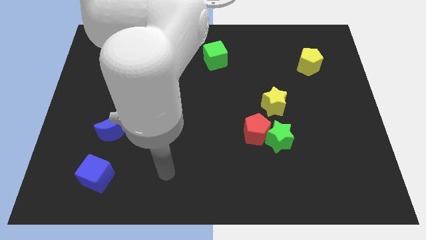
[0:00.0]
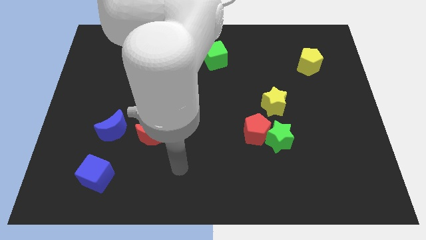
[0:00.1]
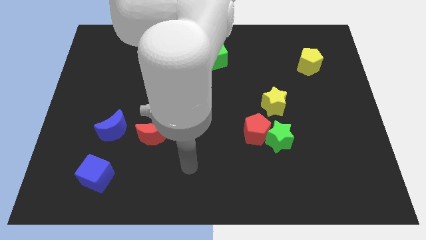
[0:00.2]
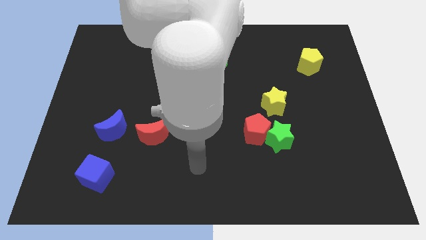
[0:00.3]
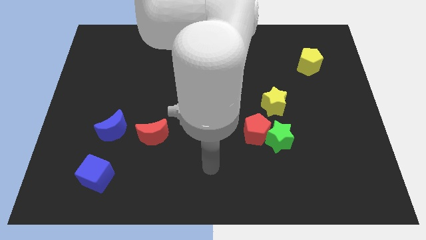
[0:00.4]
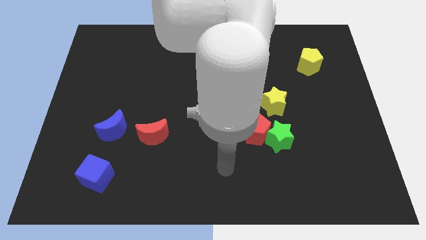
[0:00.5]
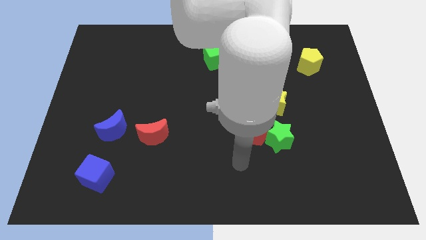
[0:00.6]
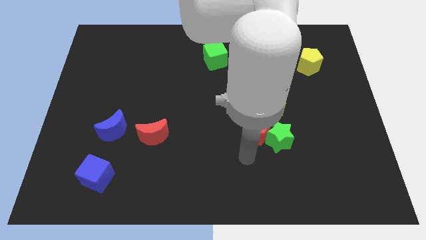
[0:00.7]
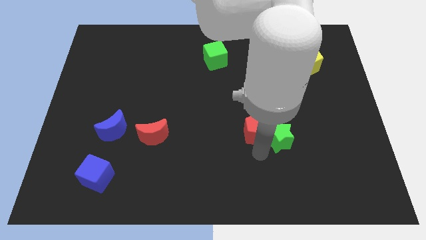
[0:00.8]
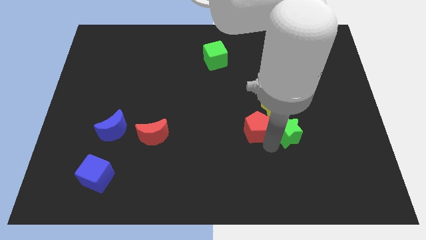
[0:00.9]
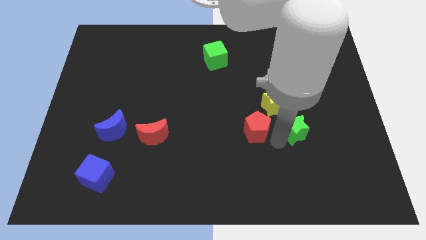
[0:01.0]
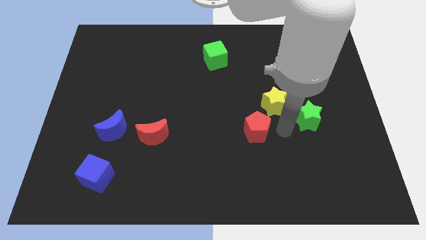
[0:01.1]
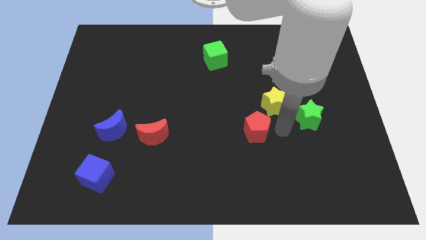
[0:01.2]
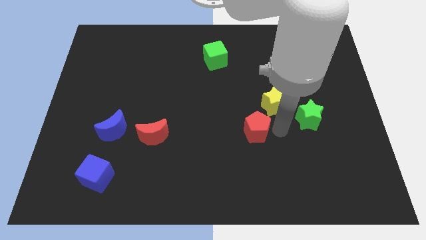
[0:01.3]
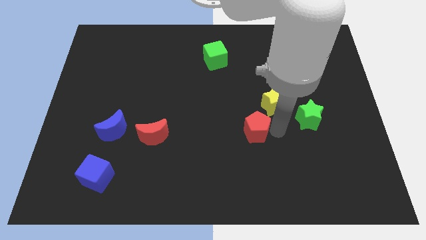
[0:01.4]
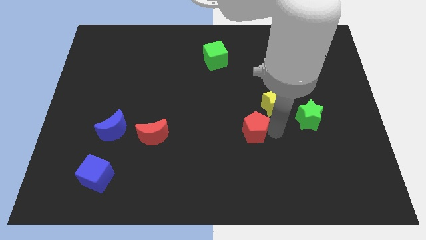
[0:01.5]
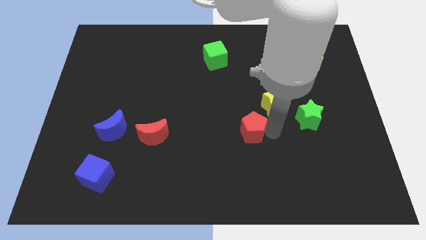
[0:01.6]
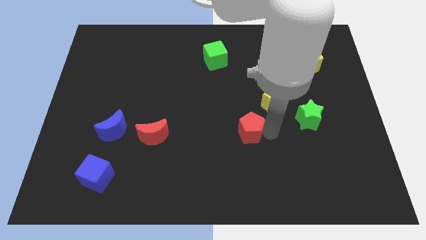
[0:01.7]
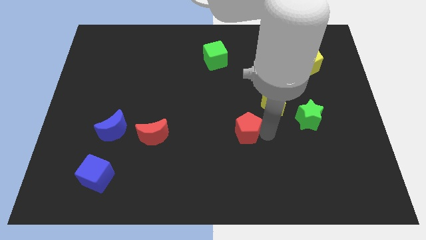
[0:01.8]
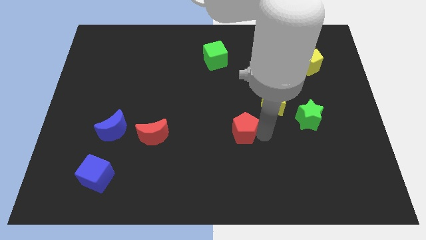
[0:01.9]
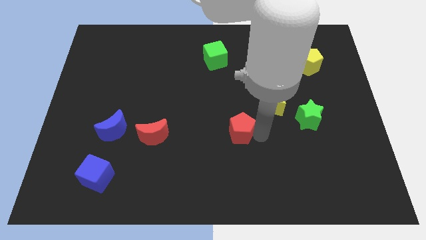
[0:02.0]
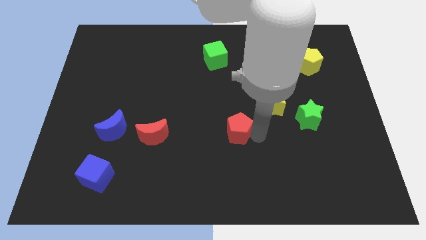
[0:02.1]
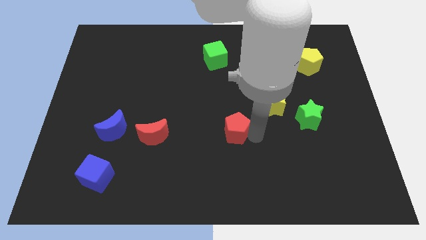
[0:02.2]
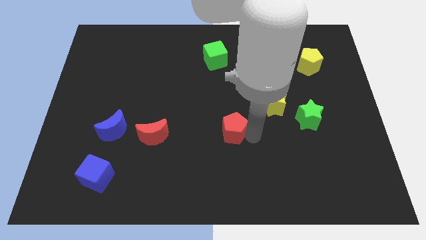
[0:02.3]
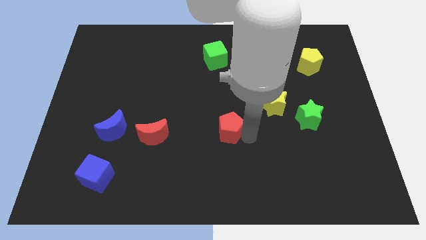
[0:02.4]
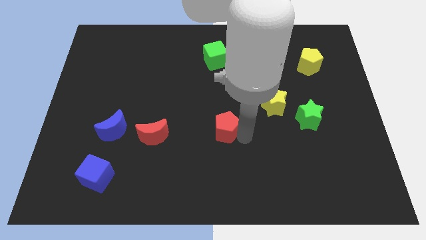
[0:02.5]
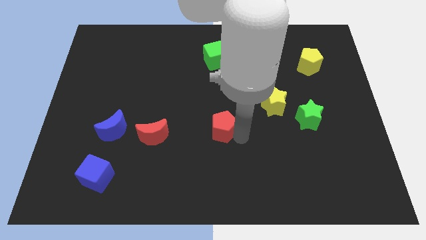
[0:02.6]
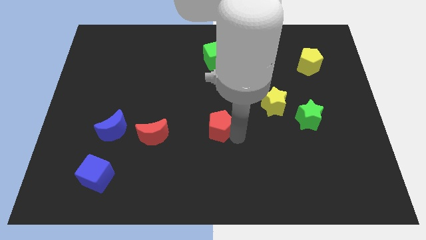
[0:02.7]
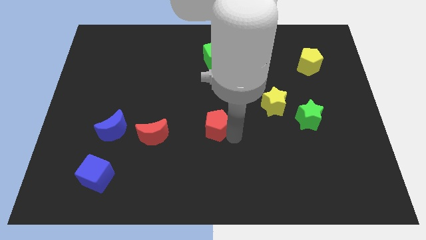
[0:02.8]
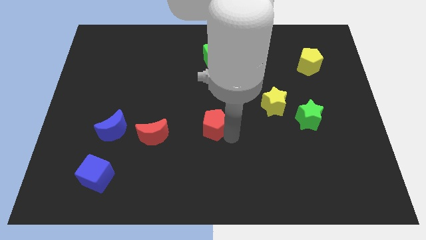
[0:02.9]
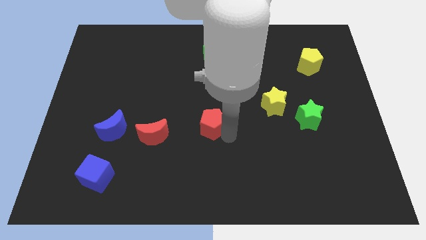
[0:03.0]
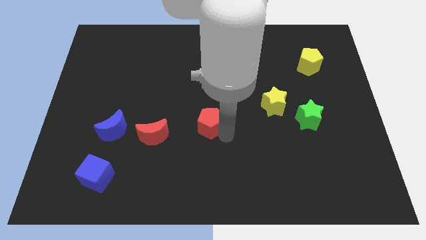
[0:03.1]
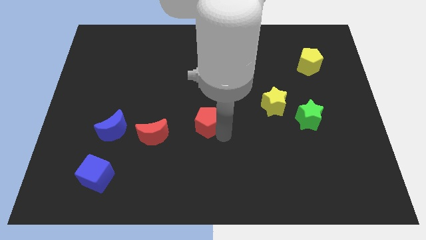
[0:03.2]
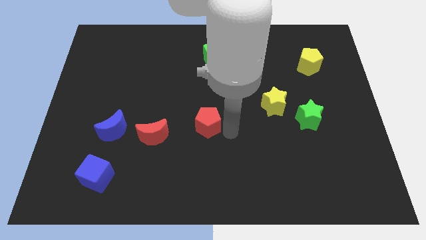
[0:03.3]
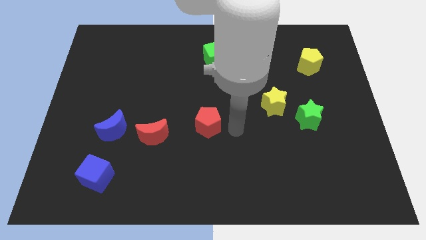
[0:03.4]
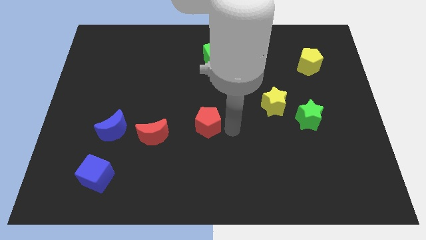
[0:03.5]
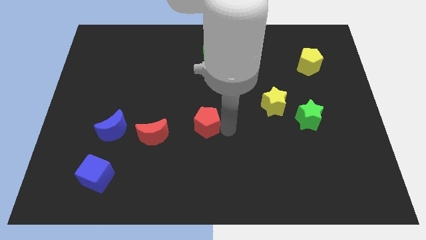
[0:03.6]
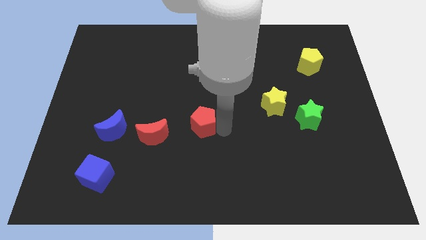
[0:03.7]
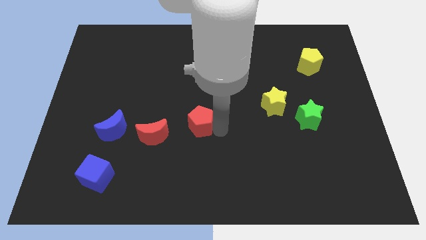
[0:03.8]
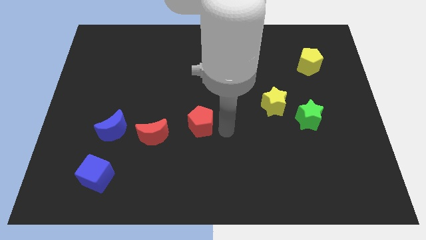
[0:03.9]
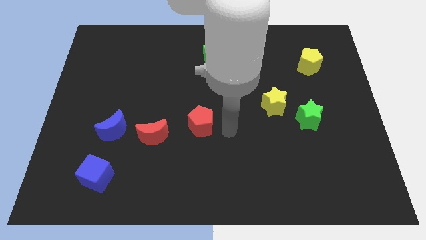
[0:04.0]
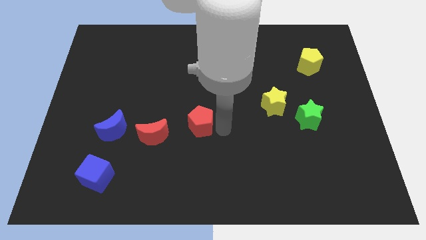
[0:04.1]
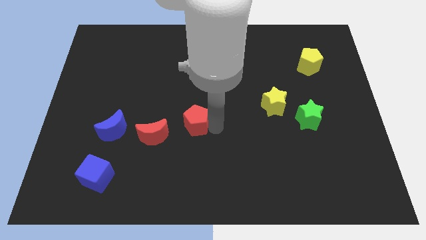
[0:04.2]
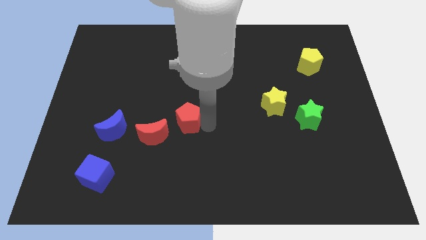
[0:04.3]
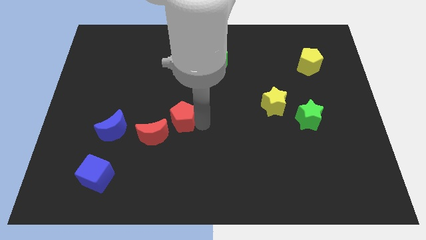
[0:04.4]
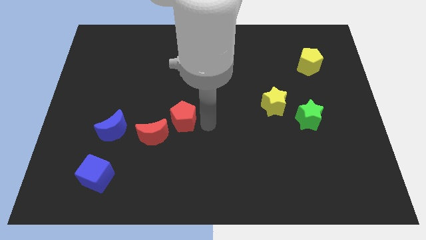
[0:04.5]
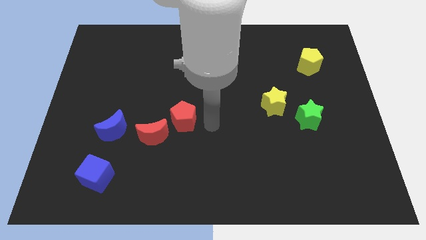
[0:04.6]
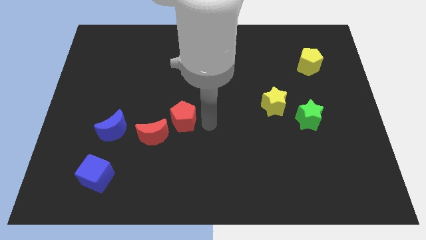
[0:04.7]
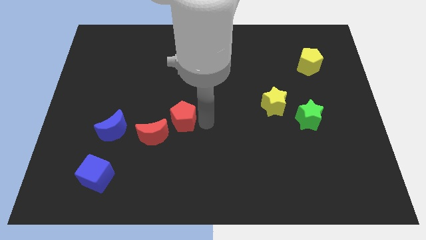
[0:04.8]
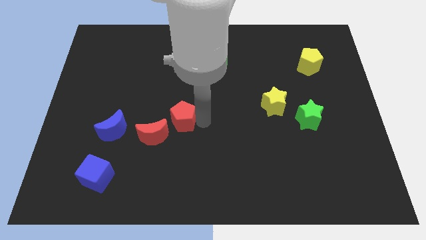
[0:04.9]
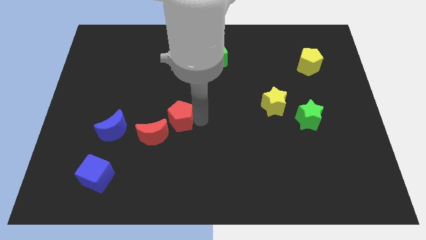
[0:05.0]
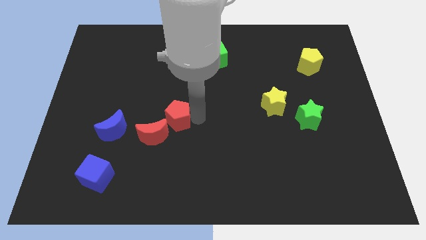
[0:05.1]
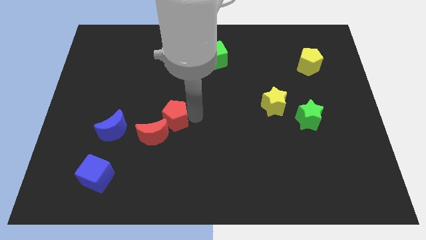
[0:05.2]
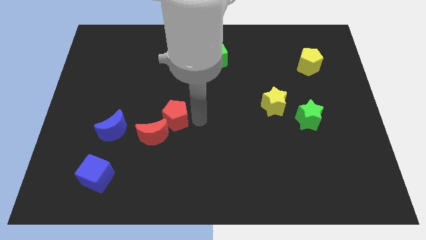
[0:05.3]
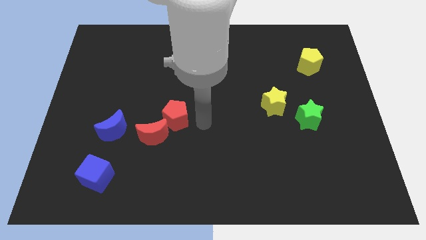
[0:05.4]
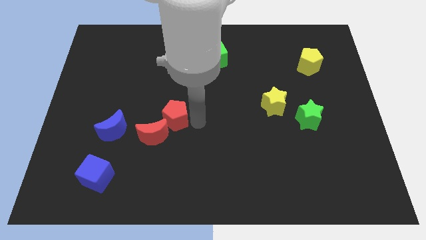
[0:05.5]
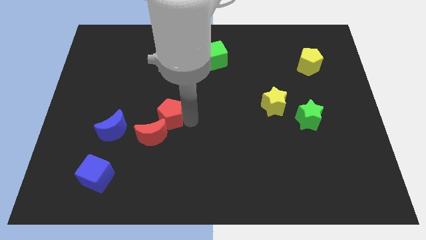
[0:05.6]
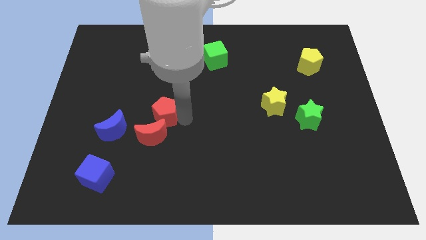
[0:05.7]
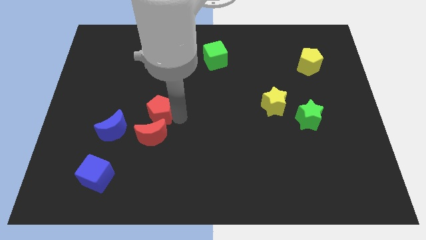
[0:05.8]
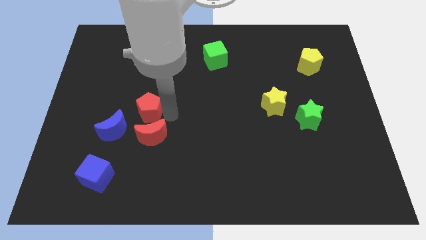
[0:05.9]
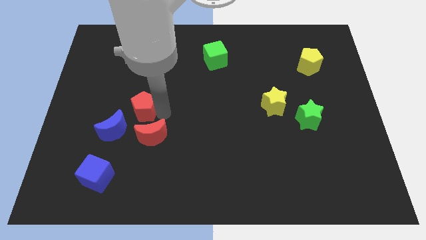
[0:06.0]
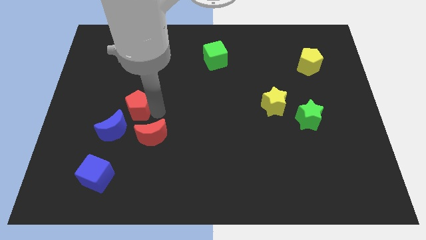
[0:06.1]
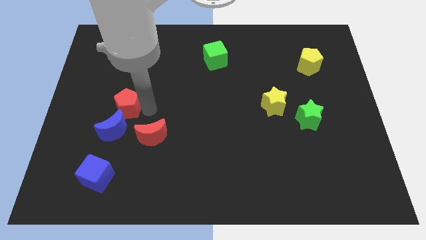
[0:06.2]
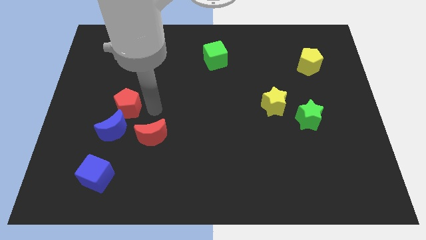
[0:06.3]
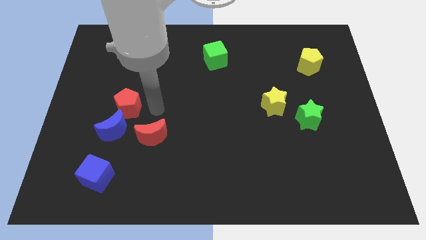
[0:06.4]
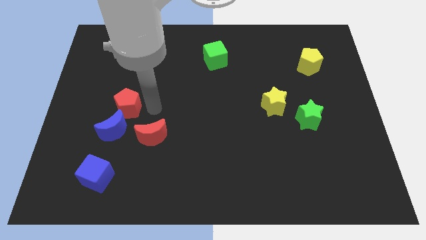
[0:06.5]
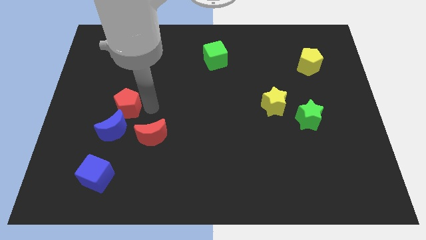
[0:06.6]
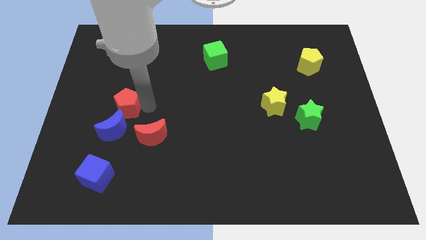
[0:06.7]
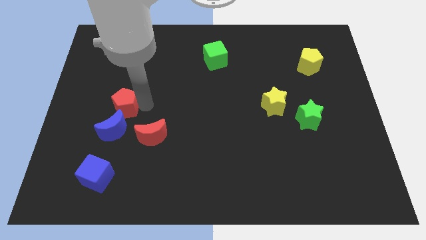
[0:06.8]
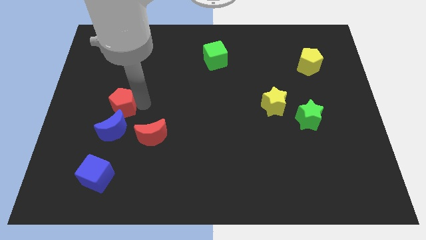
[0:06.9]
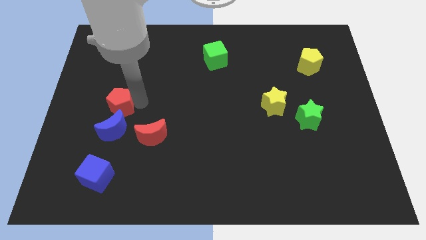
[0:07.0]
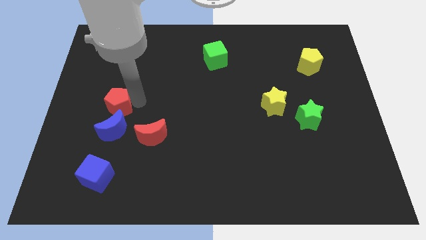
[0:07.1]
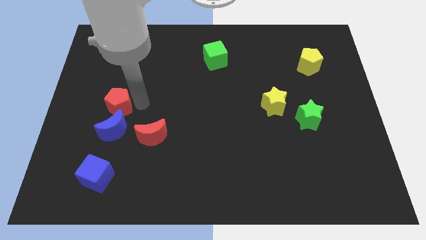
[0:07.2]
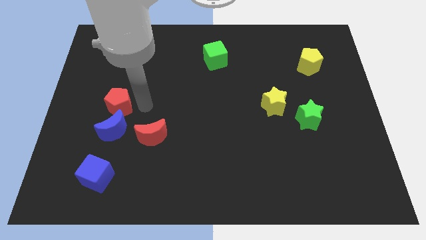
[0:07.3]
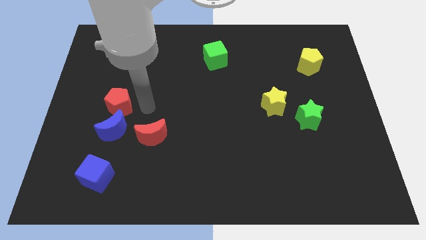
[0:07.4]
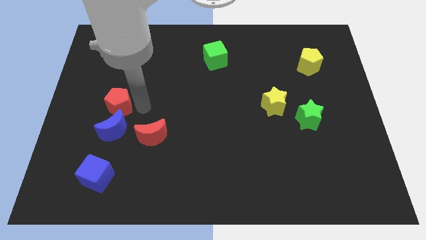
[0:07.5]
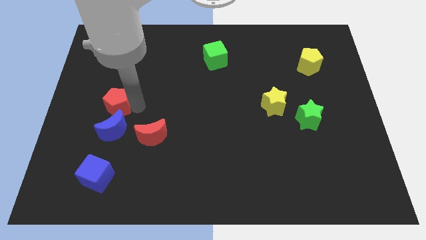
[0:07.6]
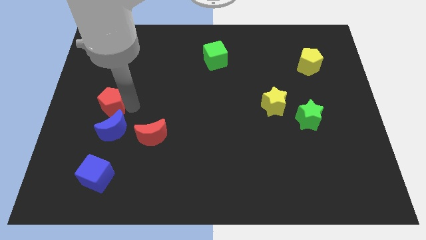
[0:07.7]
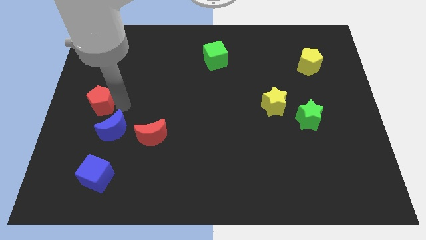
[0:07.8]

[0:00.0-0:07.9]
move the red pentagon to the center left
